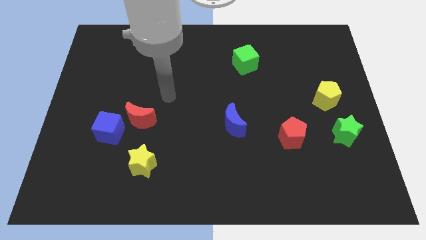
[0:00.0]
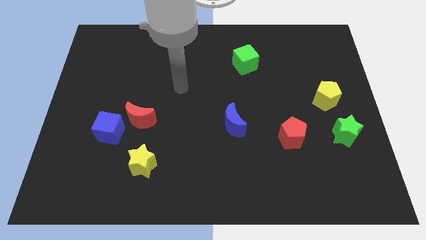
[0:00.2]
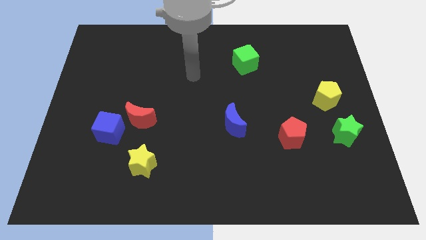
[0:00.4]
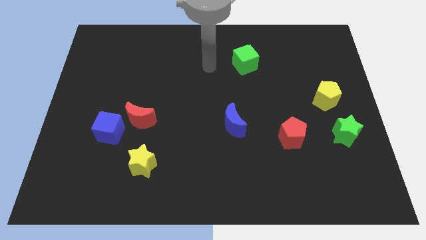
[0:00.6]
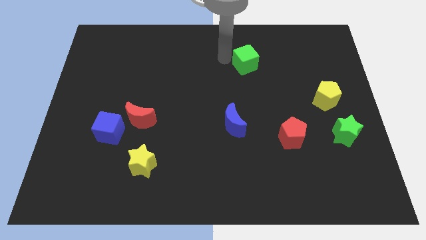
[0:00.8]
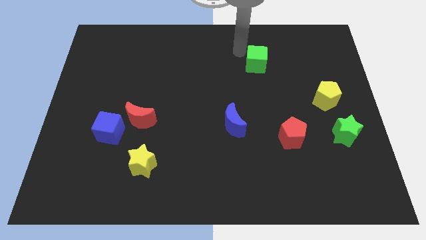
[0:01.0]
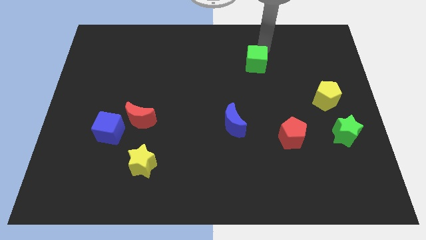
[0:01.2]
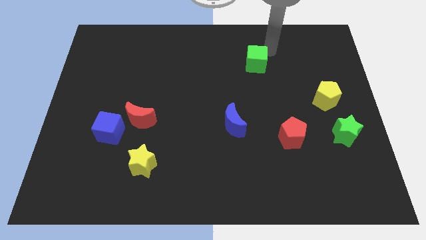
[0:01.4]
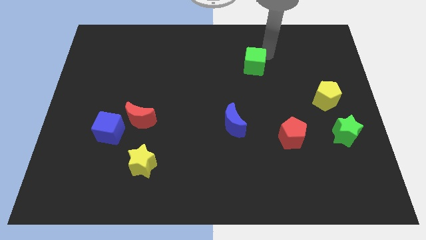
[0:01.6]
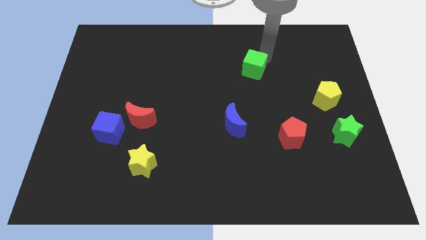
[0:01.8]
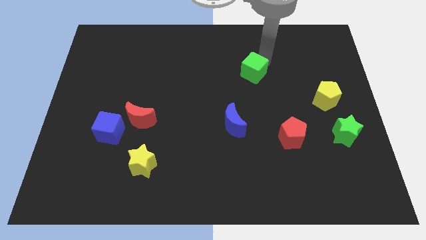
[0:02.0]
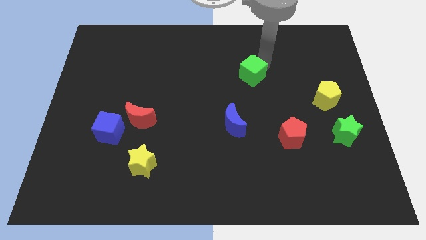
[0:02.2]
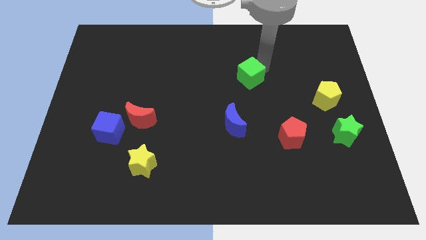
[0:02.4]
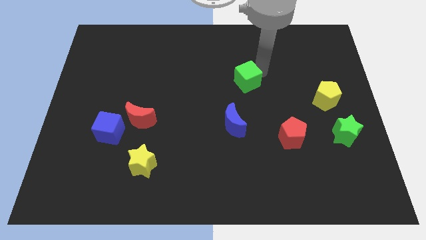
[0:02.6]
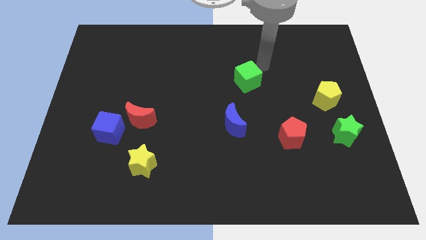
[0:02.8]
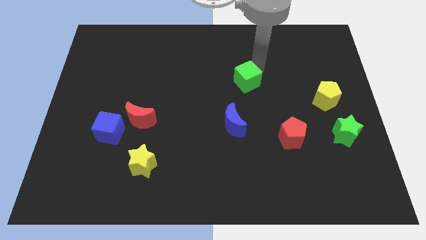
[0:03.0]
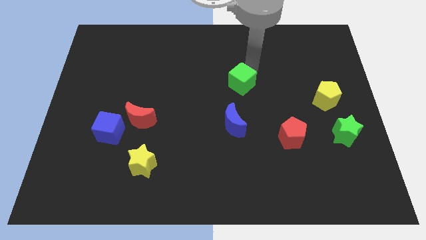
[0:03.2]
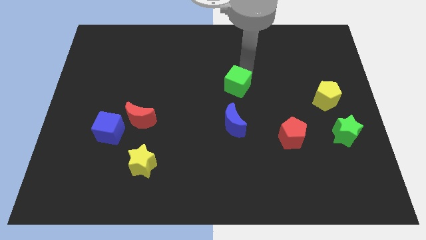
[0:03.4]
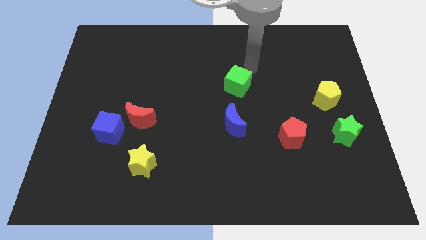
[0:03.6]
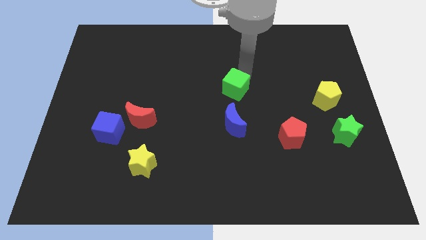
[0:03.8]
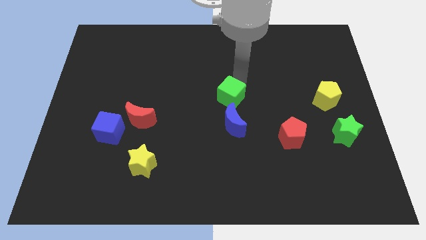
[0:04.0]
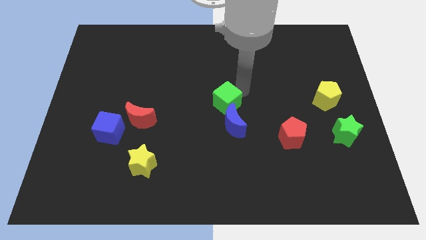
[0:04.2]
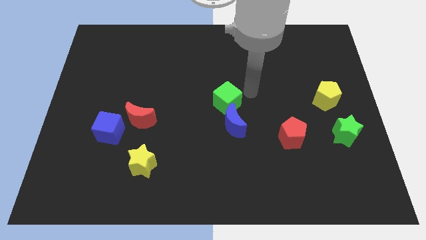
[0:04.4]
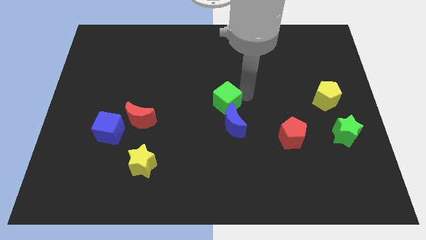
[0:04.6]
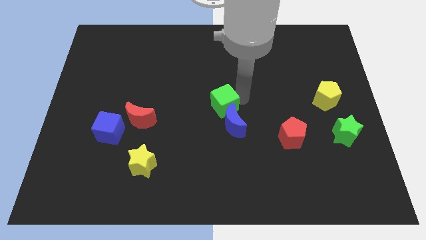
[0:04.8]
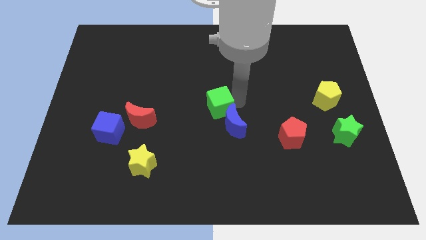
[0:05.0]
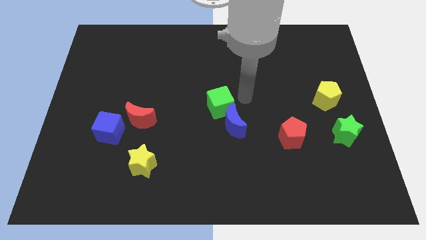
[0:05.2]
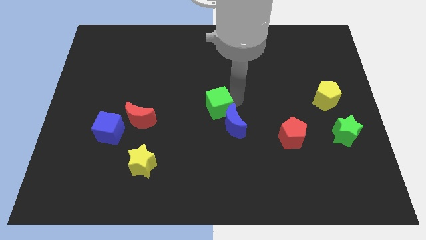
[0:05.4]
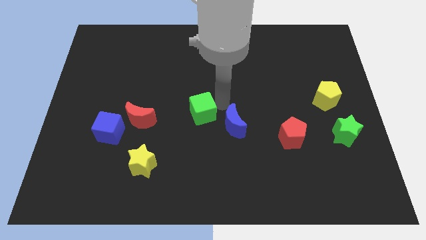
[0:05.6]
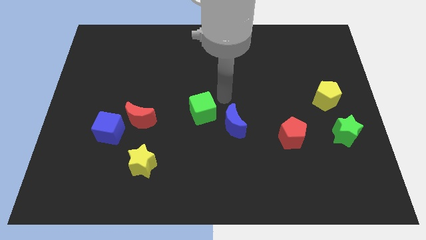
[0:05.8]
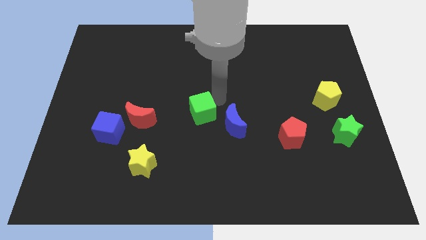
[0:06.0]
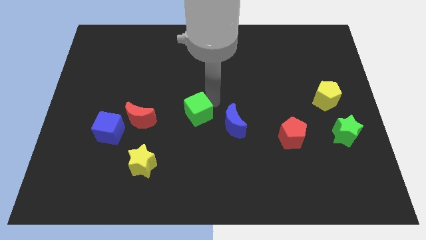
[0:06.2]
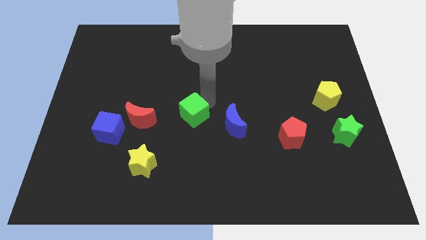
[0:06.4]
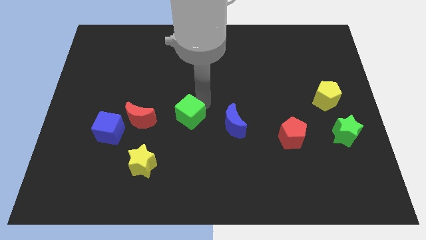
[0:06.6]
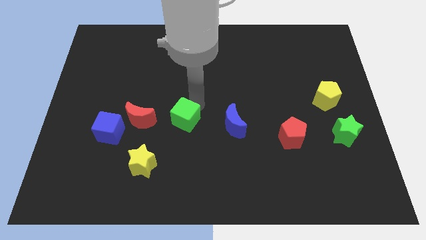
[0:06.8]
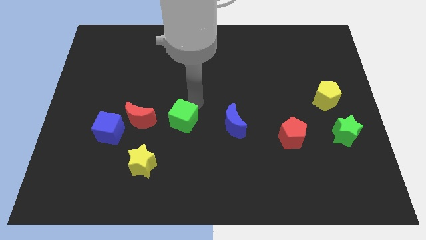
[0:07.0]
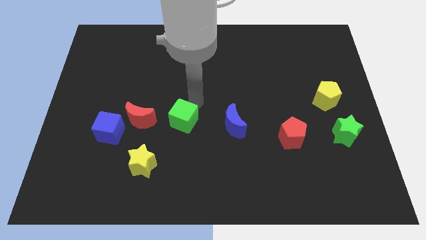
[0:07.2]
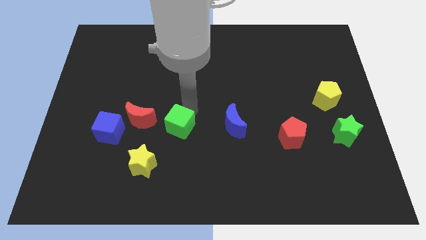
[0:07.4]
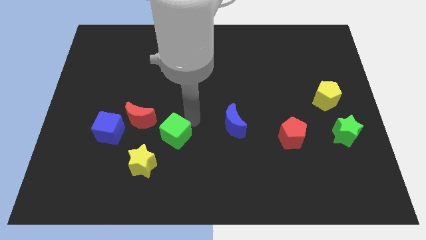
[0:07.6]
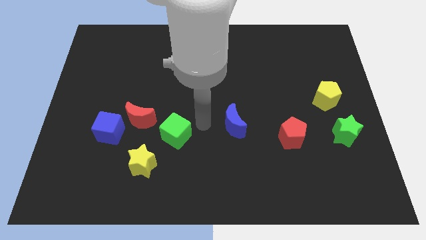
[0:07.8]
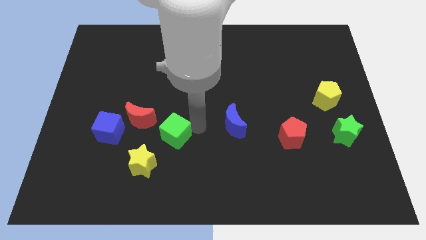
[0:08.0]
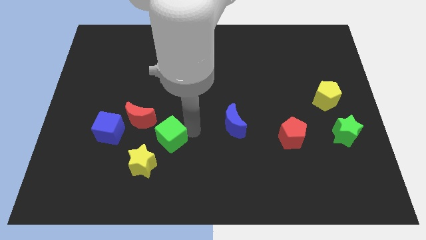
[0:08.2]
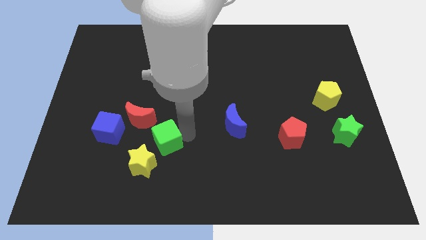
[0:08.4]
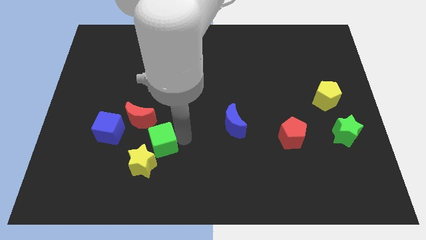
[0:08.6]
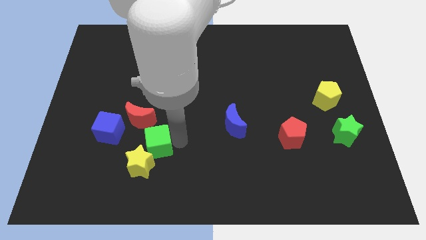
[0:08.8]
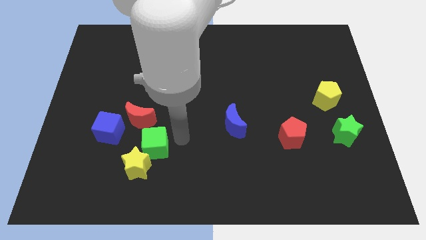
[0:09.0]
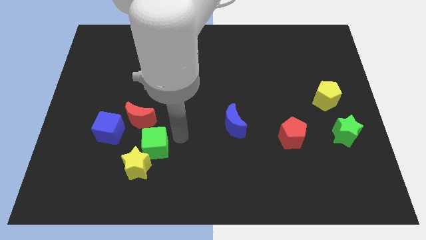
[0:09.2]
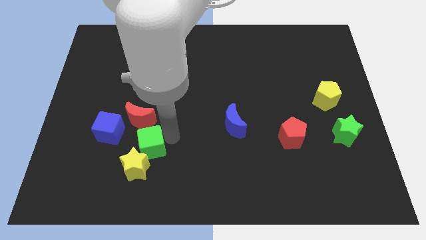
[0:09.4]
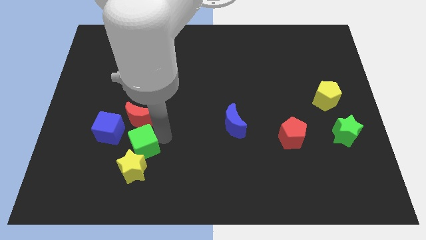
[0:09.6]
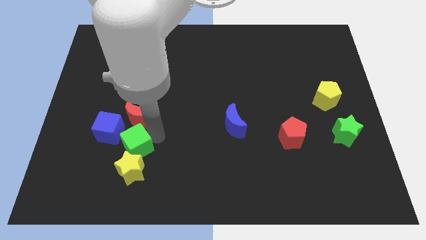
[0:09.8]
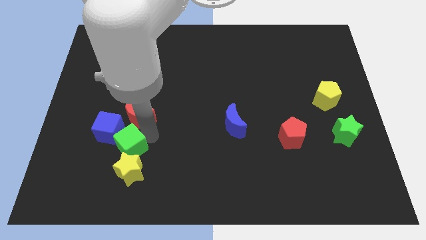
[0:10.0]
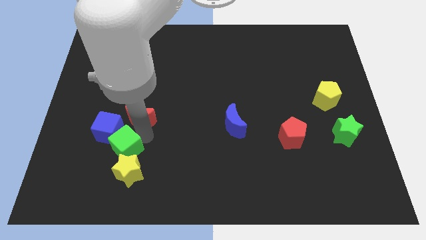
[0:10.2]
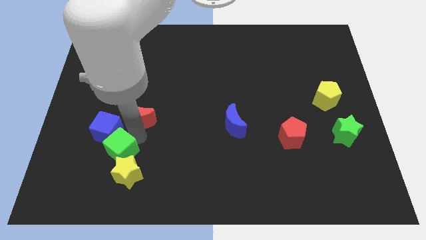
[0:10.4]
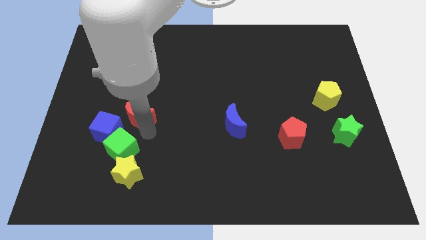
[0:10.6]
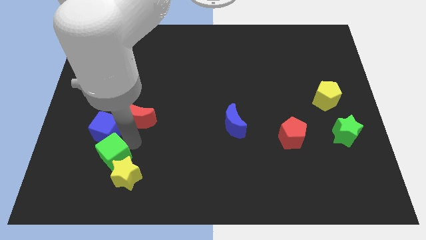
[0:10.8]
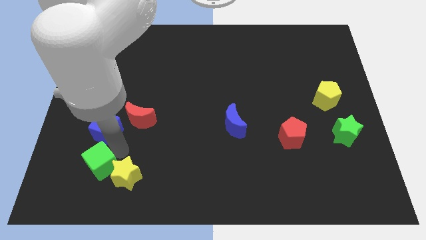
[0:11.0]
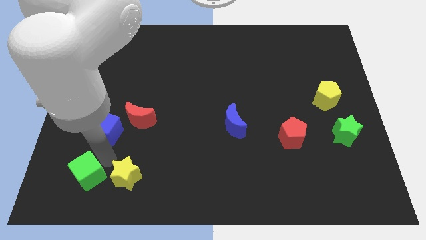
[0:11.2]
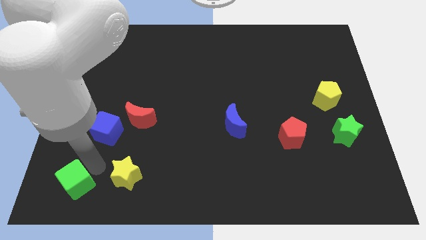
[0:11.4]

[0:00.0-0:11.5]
slide the green cube to the bottom left of the board

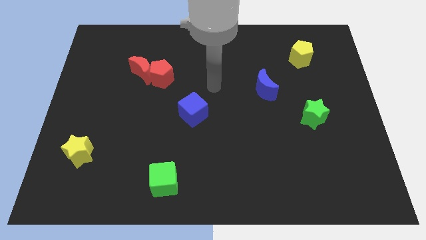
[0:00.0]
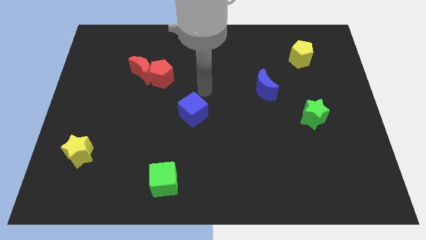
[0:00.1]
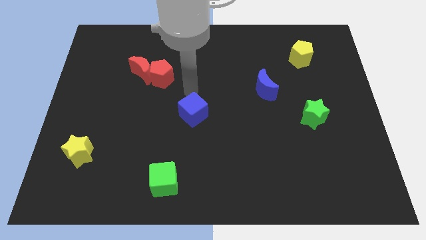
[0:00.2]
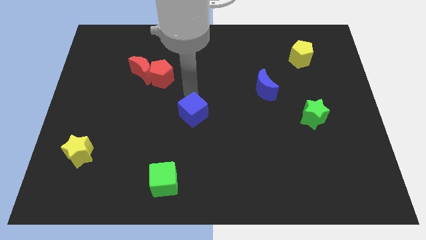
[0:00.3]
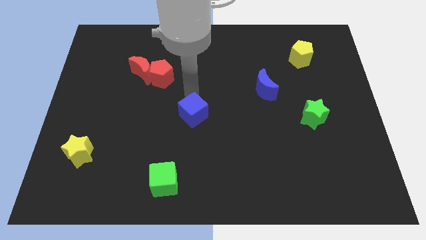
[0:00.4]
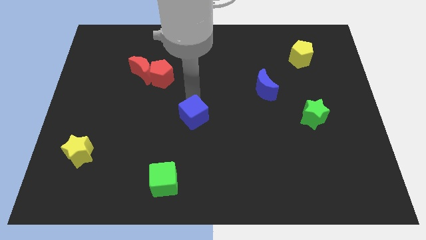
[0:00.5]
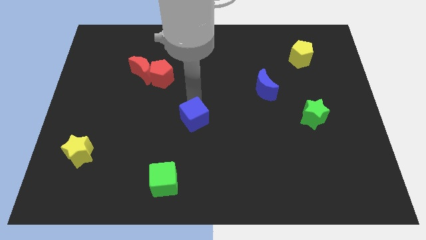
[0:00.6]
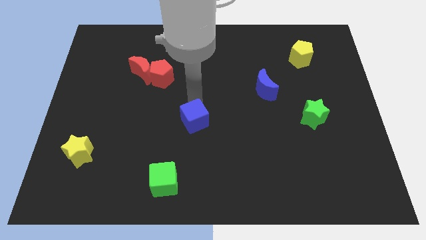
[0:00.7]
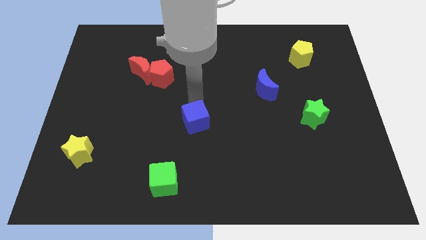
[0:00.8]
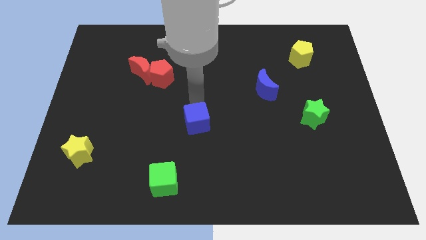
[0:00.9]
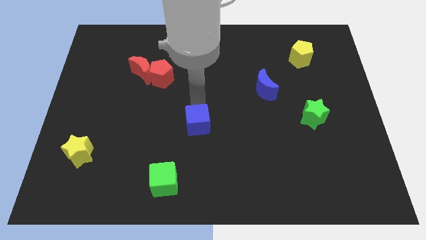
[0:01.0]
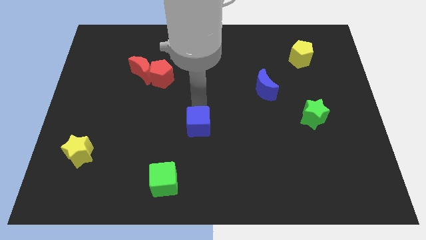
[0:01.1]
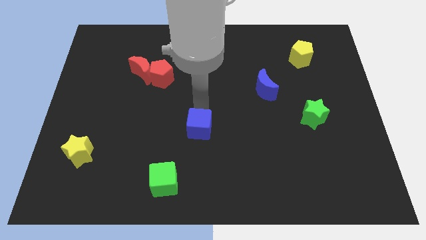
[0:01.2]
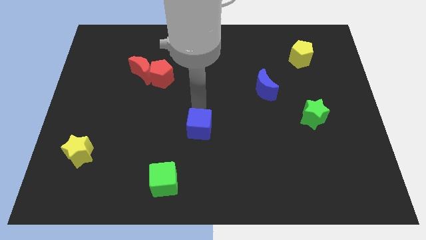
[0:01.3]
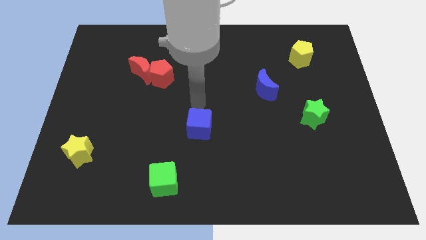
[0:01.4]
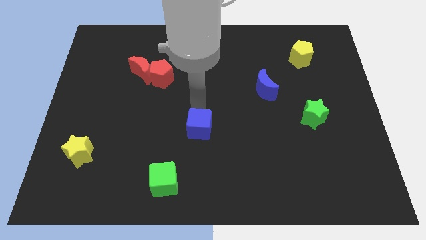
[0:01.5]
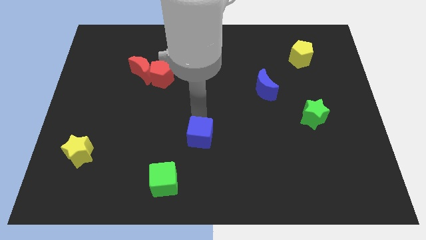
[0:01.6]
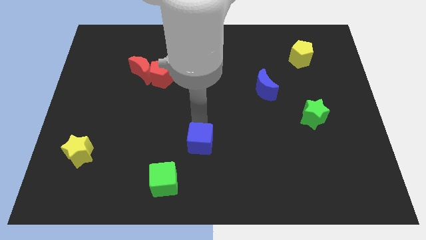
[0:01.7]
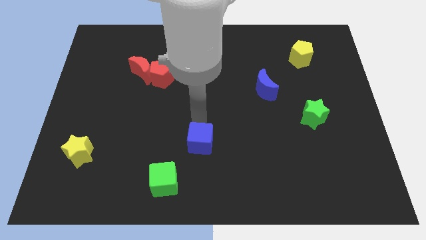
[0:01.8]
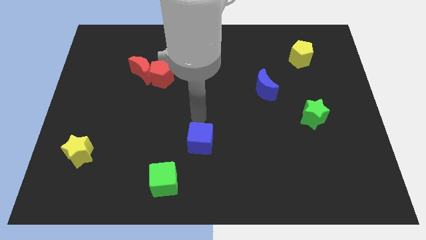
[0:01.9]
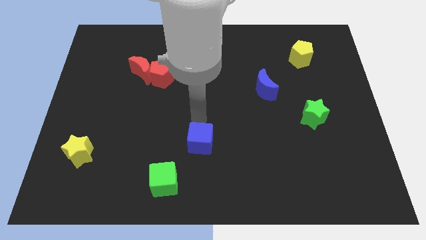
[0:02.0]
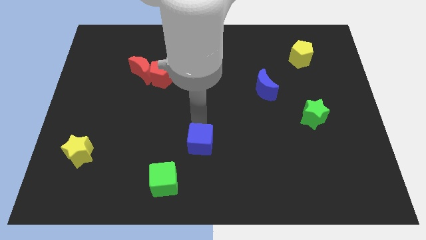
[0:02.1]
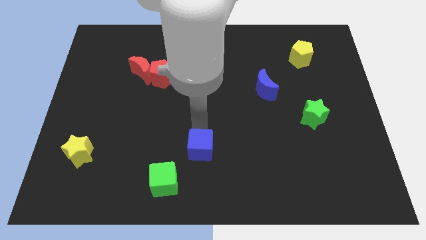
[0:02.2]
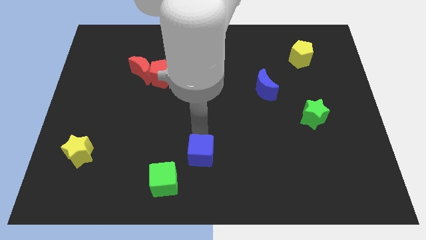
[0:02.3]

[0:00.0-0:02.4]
put the blue cube to the bottom side
